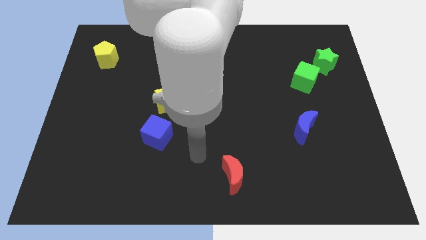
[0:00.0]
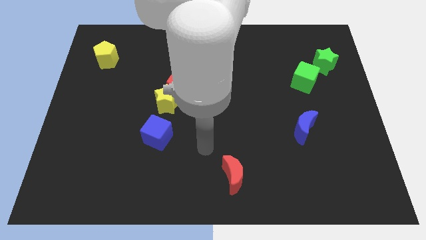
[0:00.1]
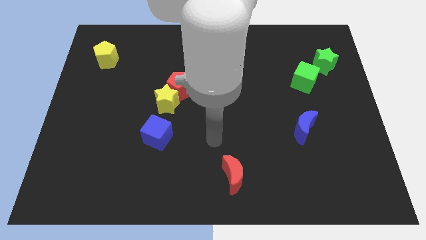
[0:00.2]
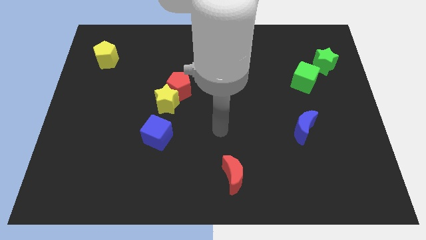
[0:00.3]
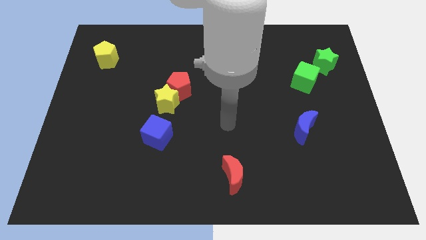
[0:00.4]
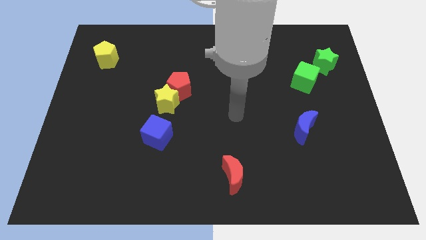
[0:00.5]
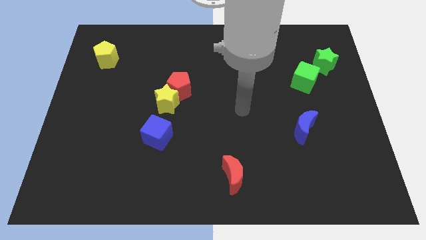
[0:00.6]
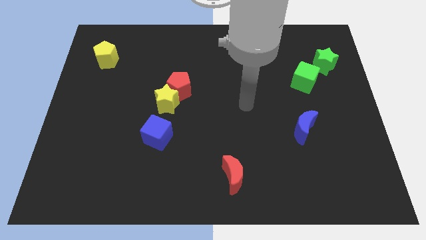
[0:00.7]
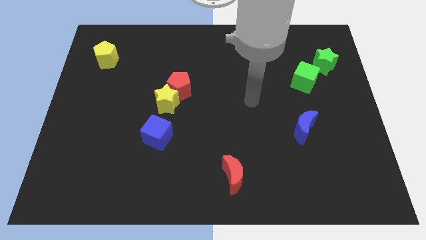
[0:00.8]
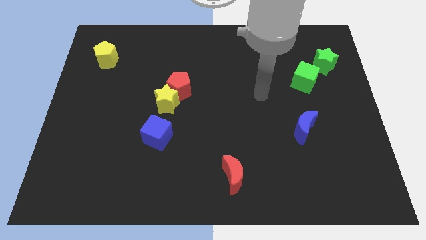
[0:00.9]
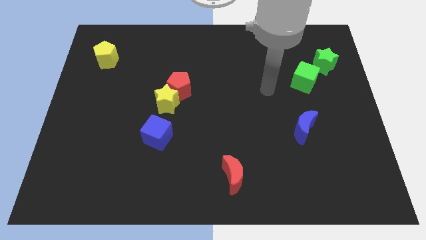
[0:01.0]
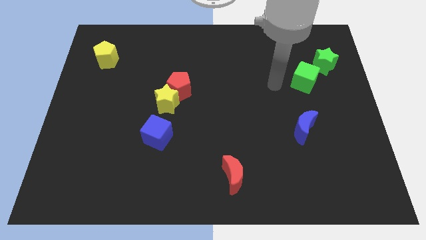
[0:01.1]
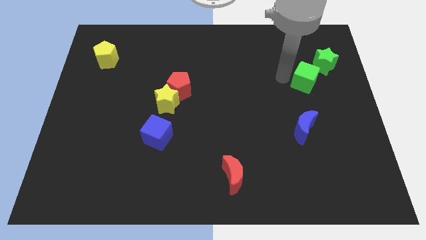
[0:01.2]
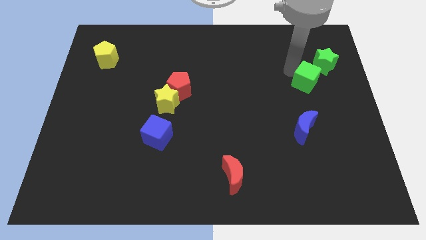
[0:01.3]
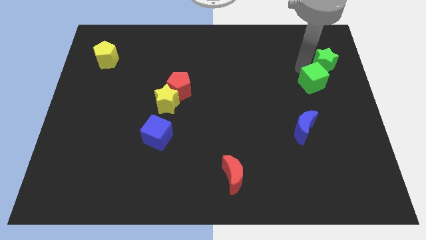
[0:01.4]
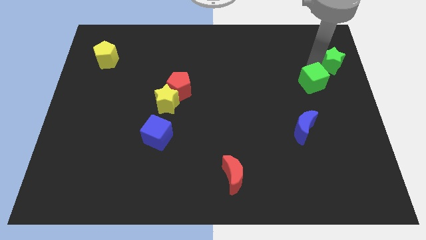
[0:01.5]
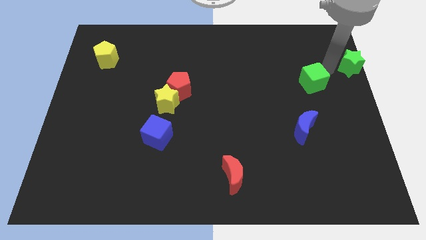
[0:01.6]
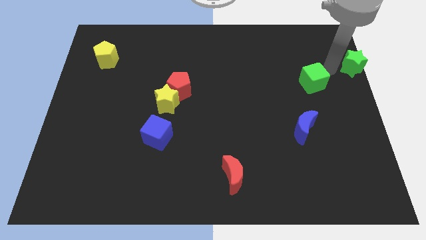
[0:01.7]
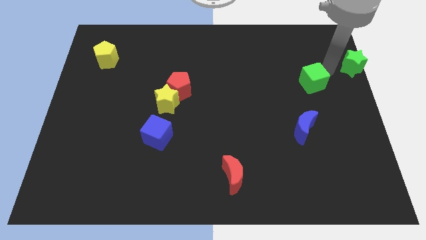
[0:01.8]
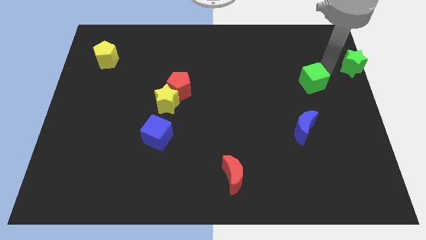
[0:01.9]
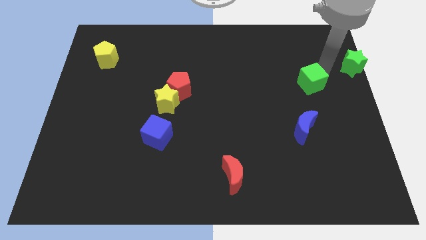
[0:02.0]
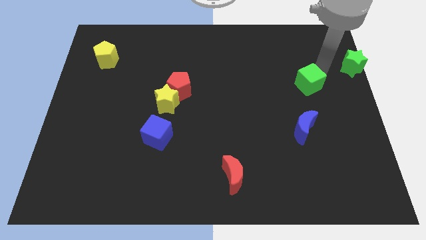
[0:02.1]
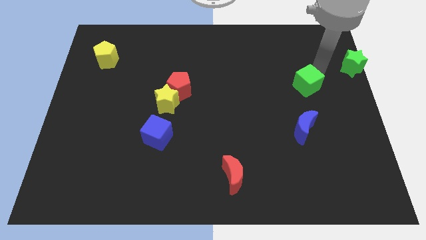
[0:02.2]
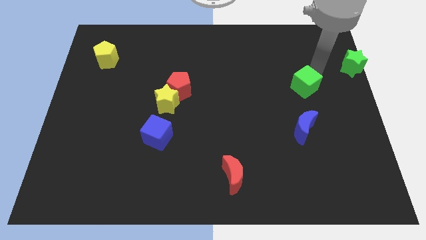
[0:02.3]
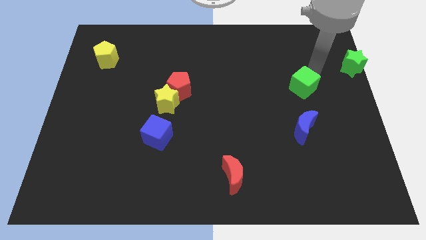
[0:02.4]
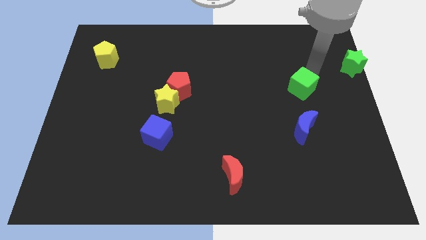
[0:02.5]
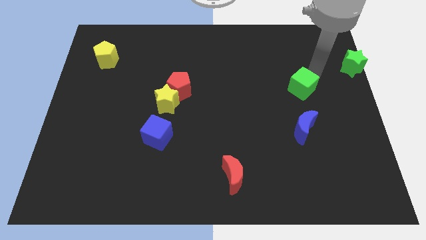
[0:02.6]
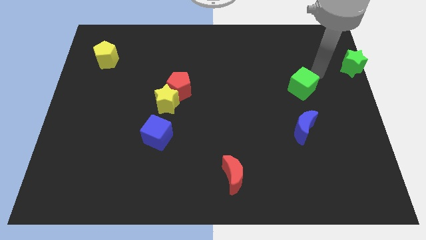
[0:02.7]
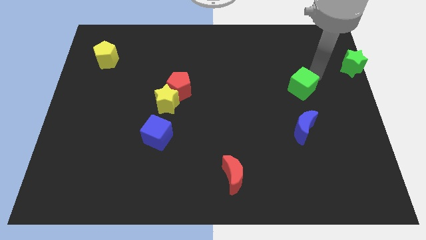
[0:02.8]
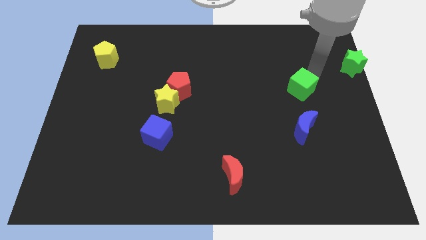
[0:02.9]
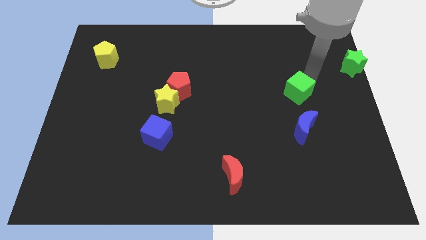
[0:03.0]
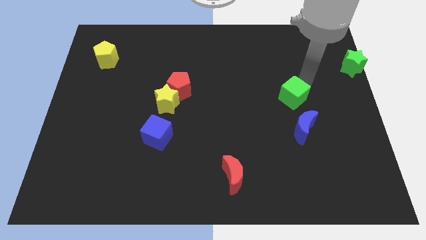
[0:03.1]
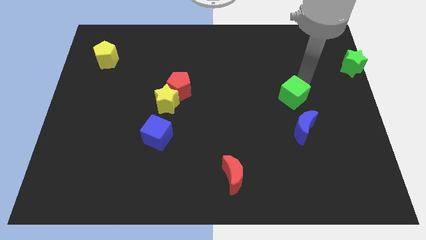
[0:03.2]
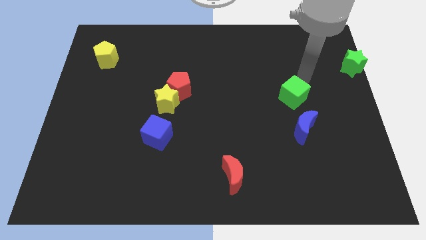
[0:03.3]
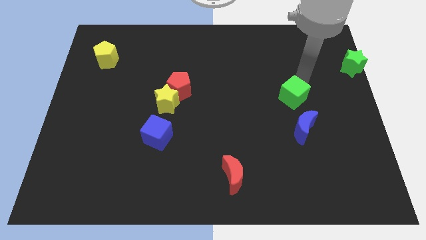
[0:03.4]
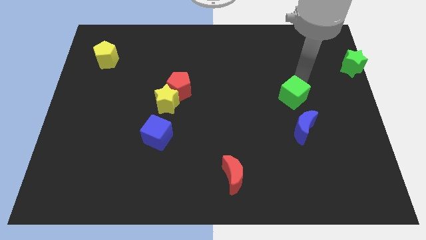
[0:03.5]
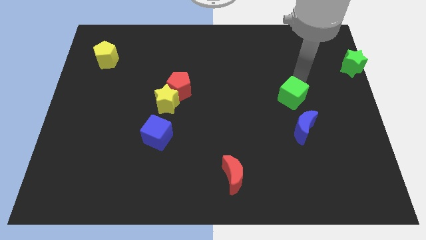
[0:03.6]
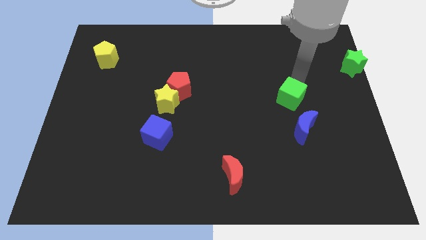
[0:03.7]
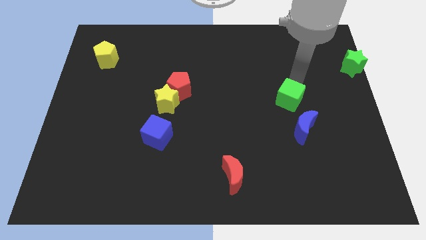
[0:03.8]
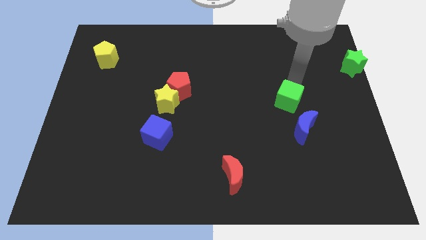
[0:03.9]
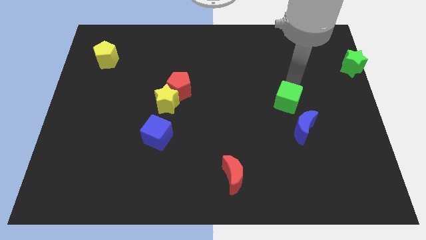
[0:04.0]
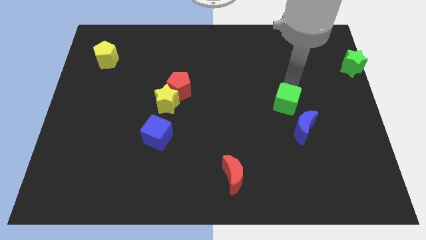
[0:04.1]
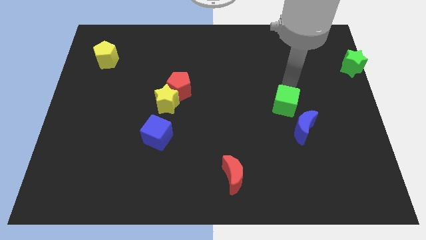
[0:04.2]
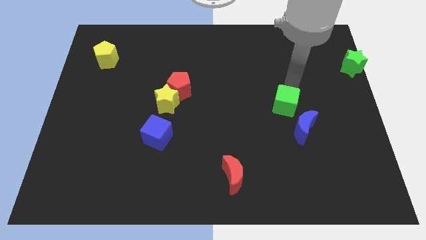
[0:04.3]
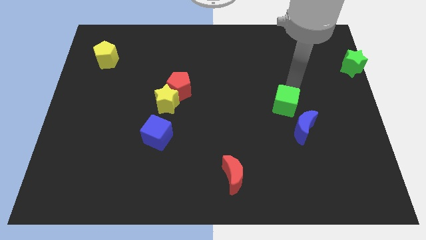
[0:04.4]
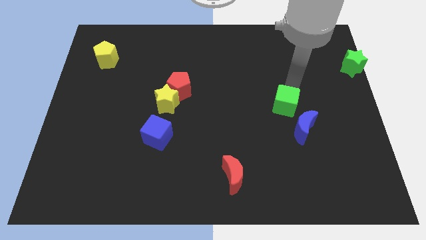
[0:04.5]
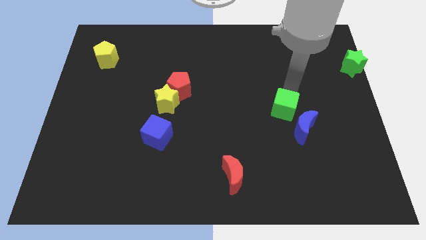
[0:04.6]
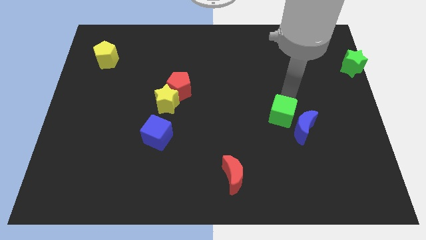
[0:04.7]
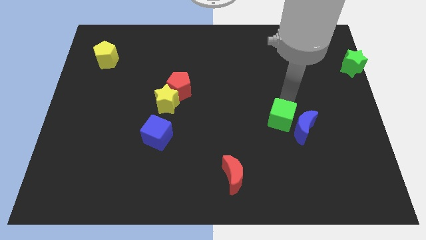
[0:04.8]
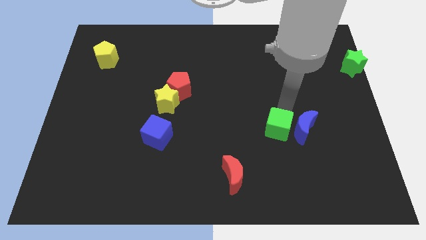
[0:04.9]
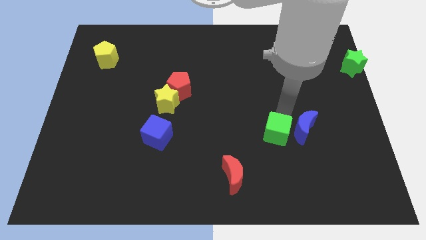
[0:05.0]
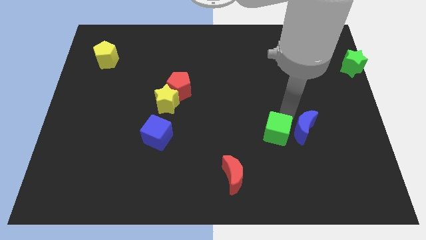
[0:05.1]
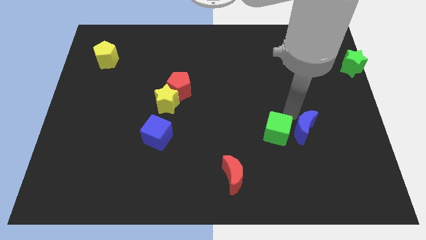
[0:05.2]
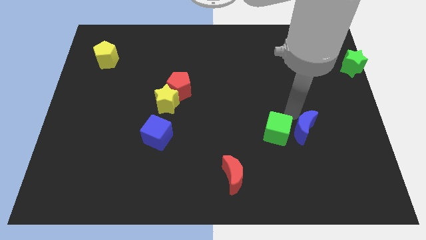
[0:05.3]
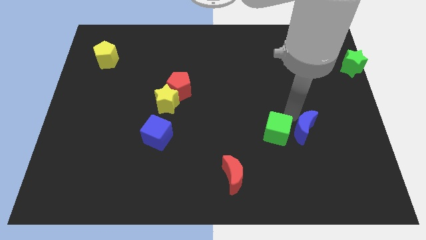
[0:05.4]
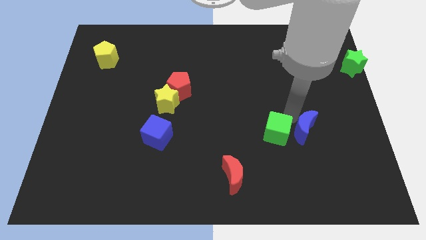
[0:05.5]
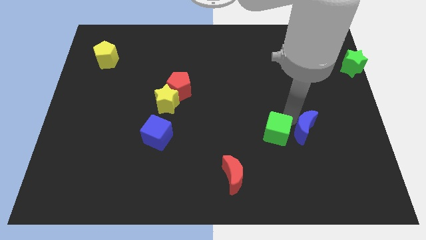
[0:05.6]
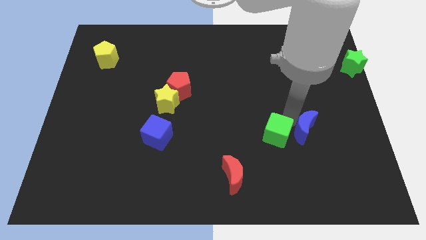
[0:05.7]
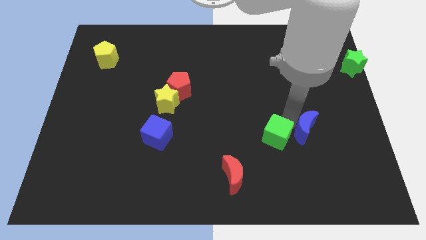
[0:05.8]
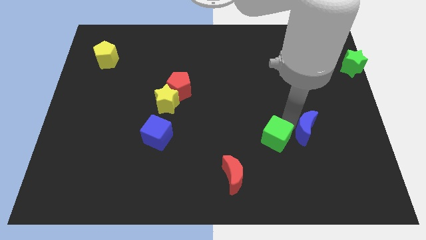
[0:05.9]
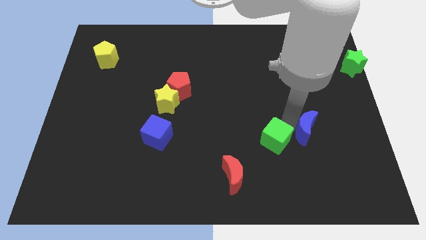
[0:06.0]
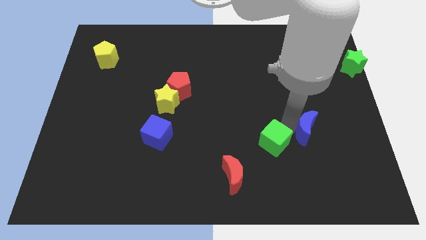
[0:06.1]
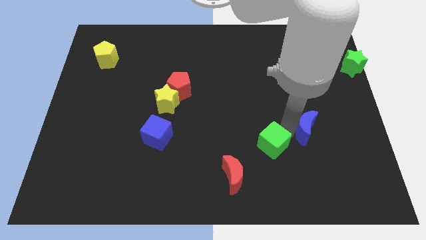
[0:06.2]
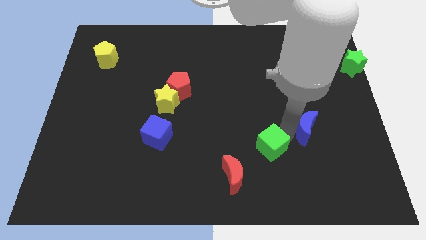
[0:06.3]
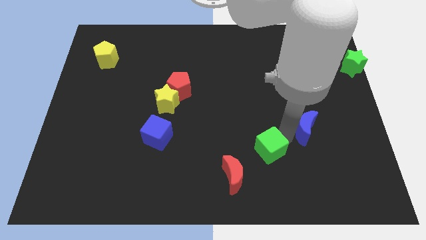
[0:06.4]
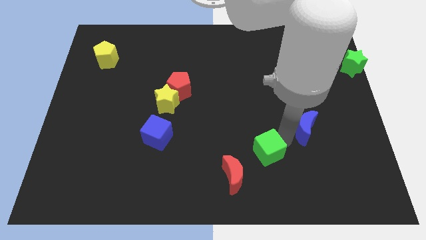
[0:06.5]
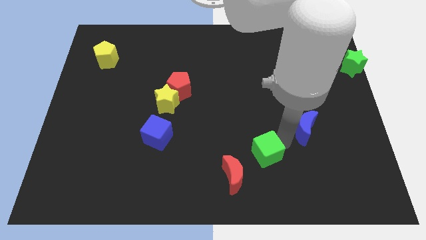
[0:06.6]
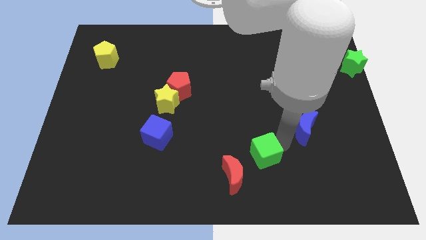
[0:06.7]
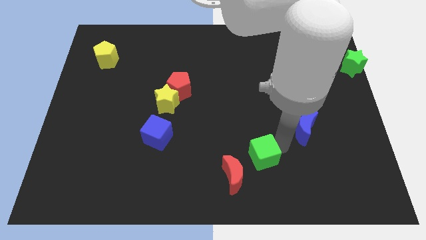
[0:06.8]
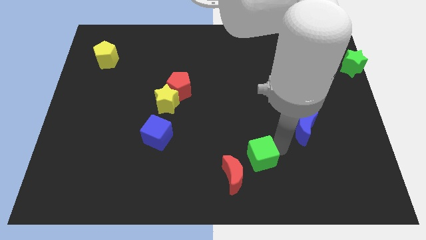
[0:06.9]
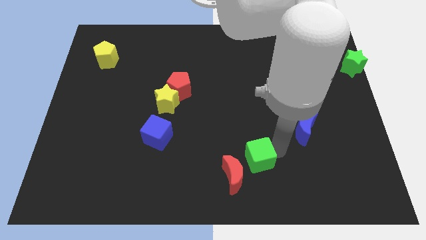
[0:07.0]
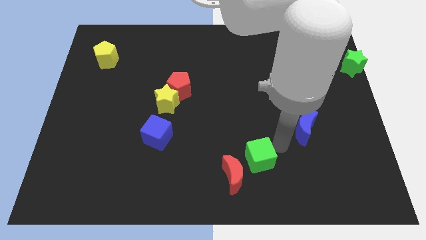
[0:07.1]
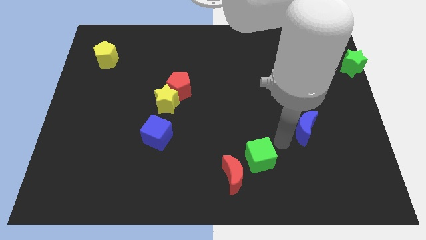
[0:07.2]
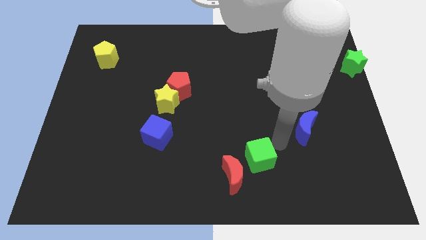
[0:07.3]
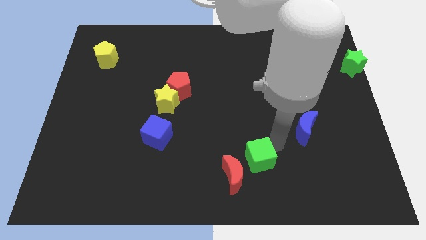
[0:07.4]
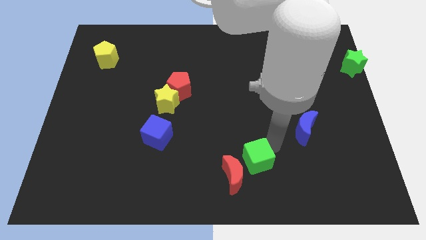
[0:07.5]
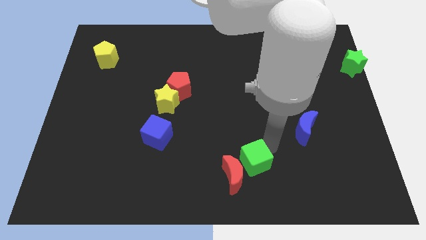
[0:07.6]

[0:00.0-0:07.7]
push the green cube to the red moon
